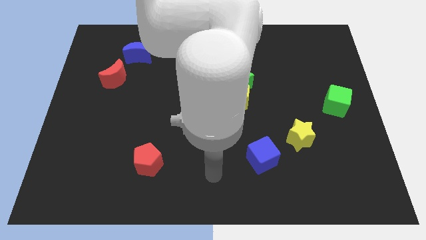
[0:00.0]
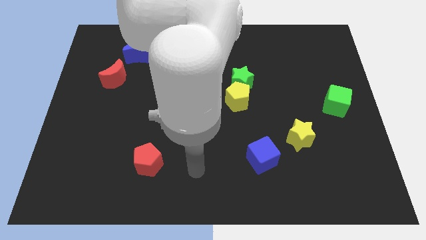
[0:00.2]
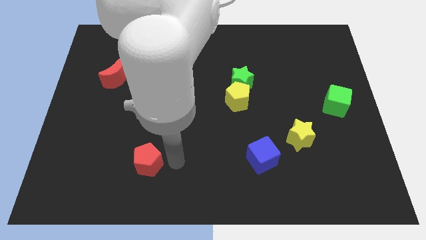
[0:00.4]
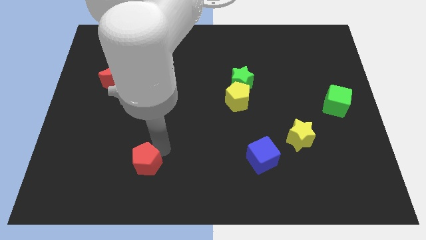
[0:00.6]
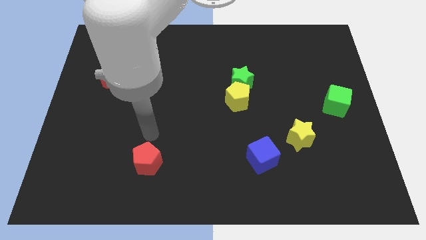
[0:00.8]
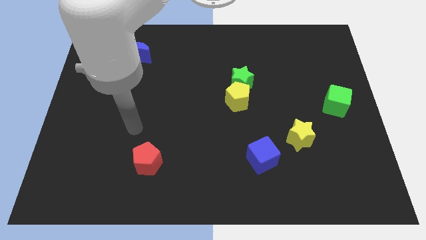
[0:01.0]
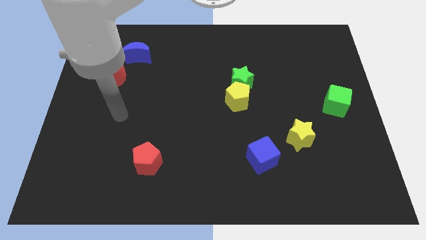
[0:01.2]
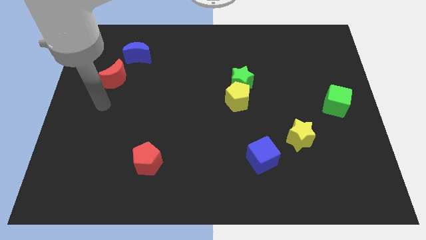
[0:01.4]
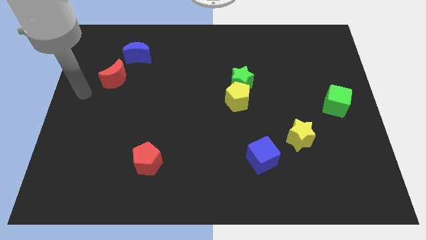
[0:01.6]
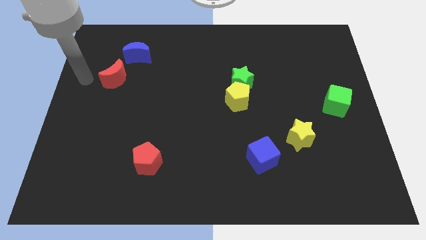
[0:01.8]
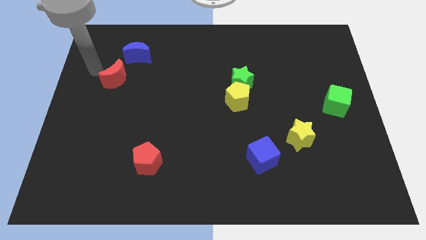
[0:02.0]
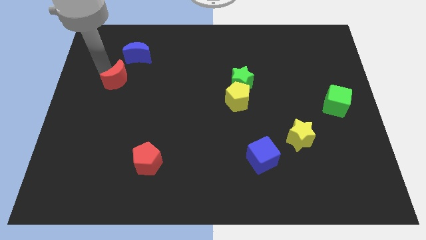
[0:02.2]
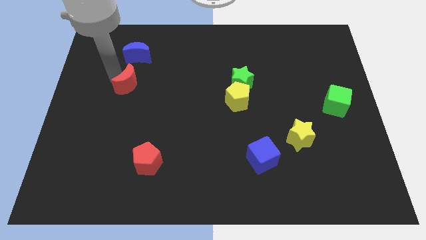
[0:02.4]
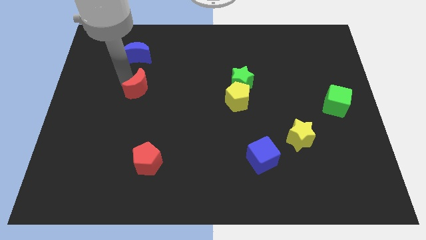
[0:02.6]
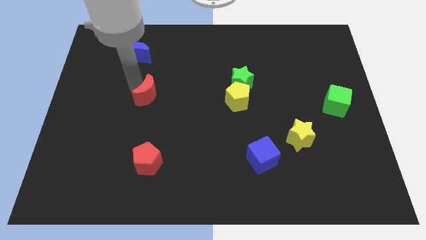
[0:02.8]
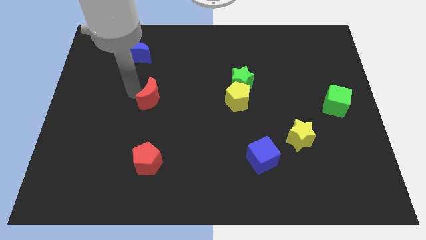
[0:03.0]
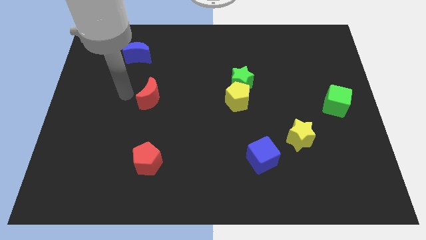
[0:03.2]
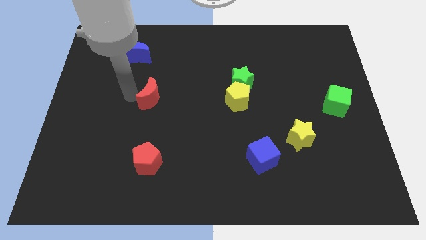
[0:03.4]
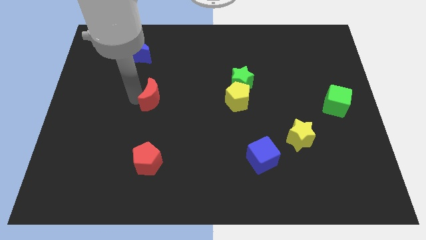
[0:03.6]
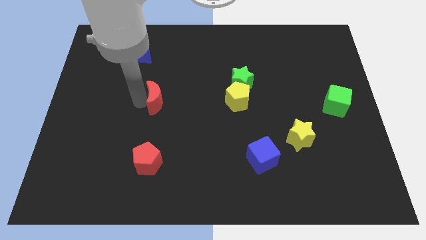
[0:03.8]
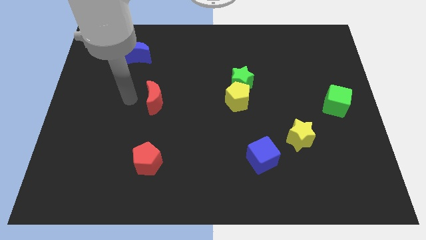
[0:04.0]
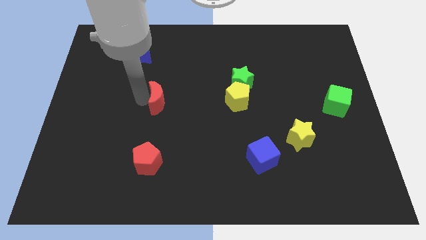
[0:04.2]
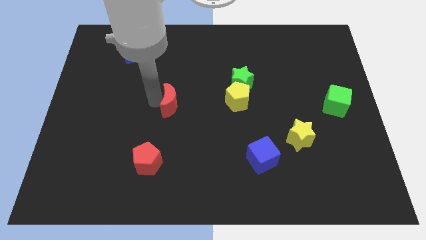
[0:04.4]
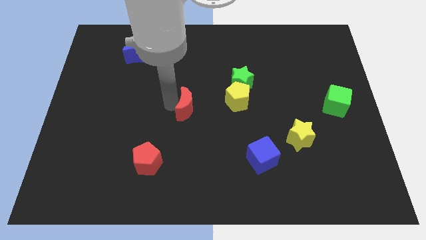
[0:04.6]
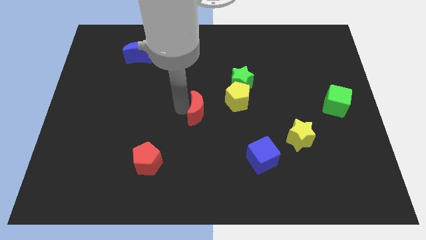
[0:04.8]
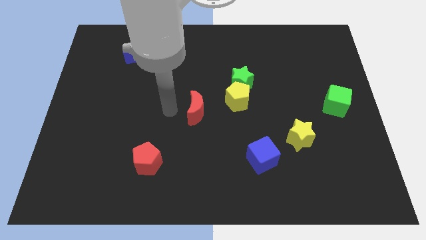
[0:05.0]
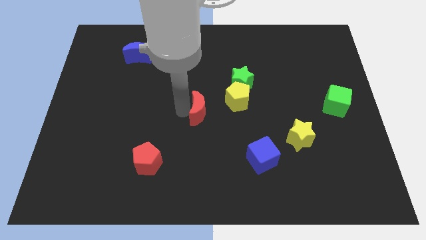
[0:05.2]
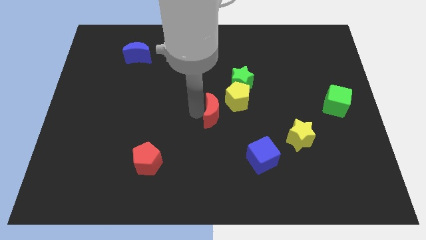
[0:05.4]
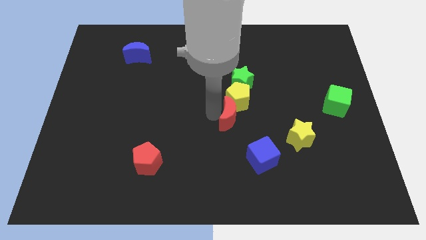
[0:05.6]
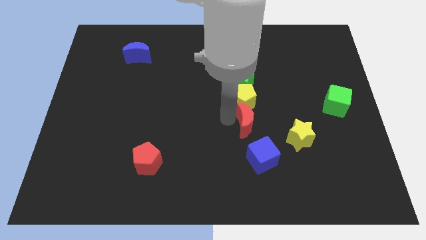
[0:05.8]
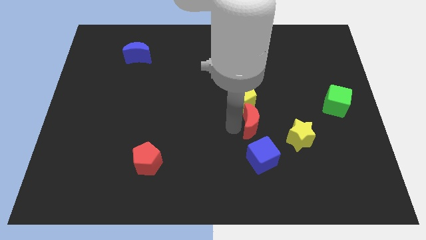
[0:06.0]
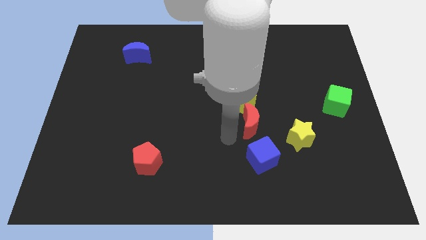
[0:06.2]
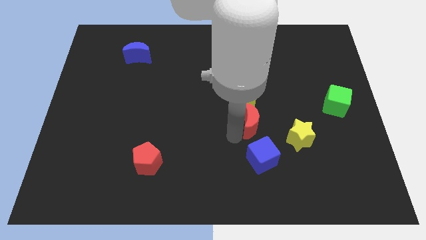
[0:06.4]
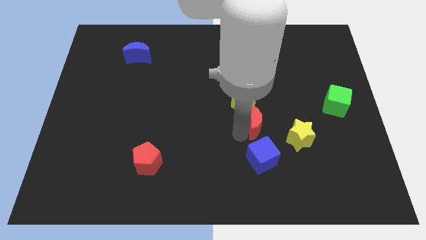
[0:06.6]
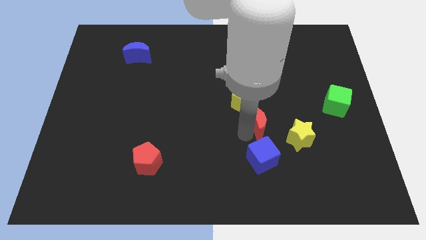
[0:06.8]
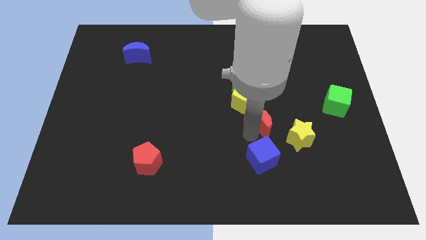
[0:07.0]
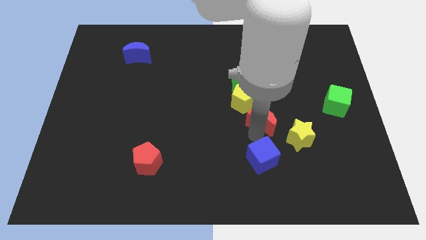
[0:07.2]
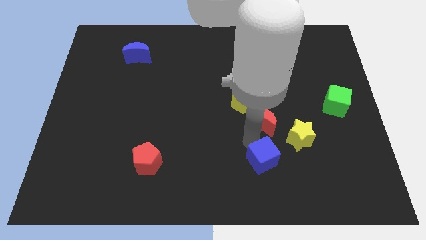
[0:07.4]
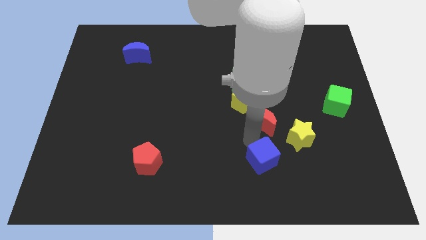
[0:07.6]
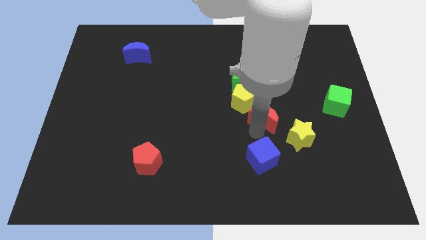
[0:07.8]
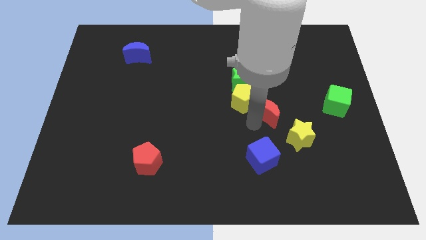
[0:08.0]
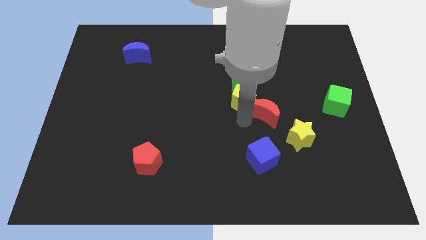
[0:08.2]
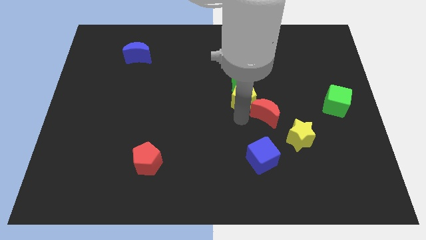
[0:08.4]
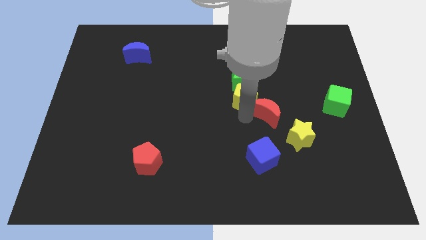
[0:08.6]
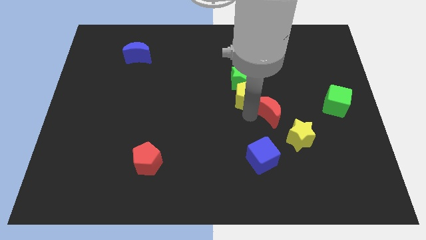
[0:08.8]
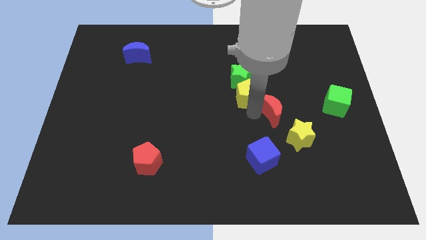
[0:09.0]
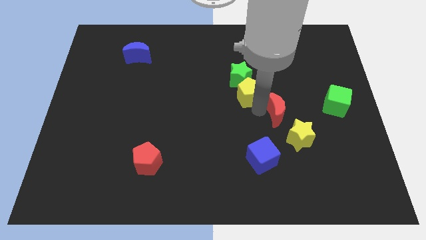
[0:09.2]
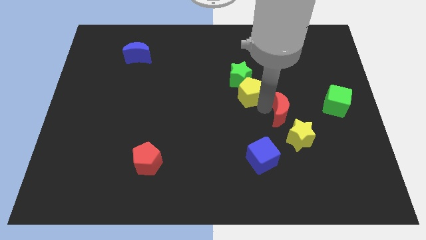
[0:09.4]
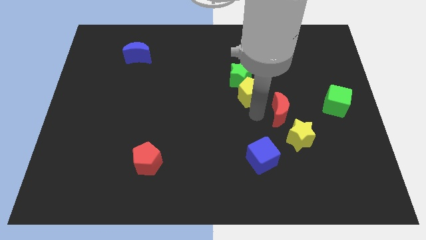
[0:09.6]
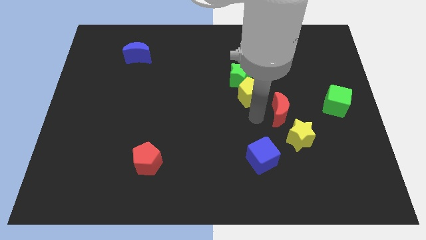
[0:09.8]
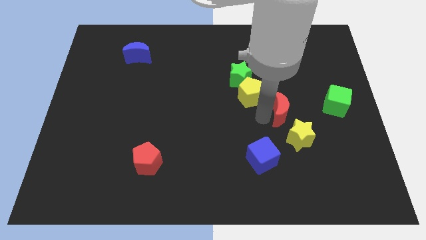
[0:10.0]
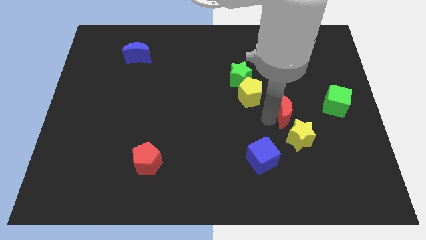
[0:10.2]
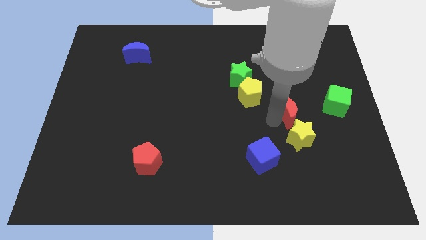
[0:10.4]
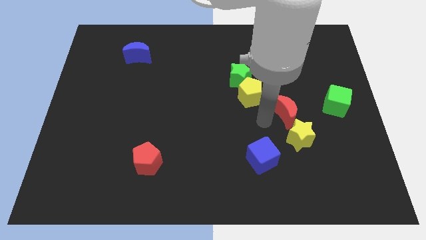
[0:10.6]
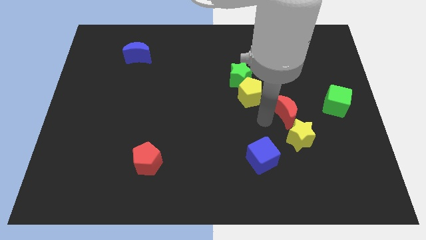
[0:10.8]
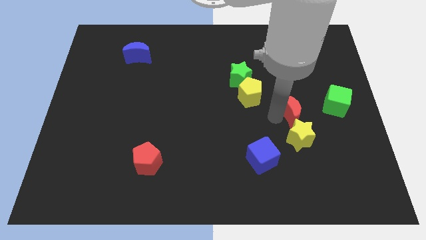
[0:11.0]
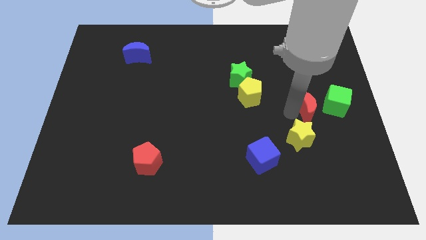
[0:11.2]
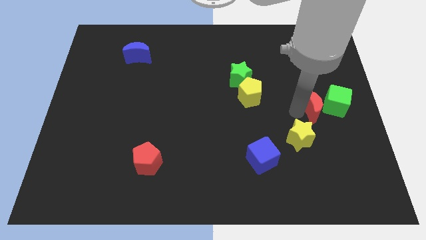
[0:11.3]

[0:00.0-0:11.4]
slide the red moon close to the green cube

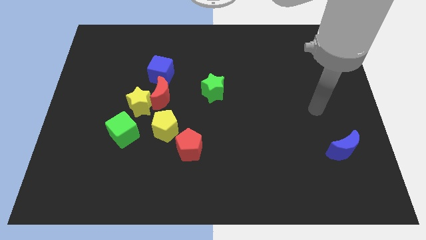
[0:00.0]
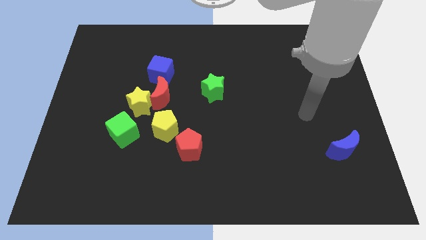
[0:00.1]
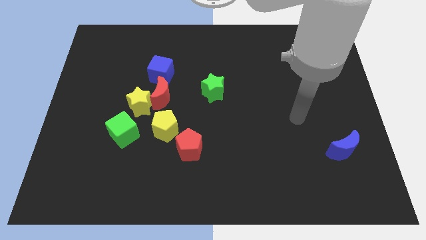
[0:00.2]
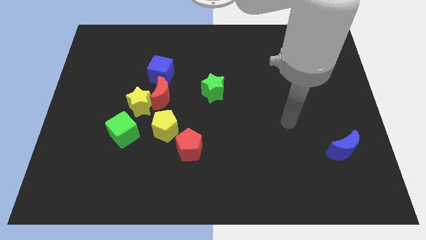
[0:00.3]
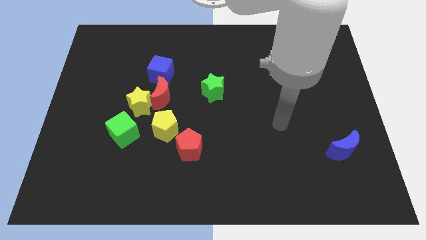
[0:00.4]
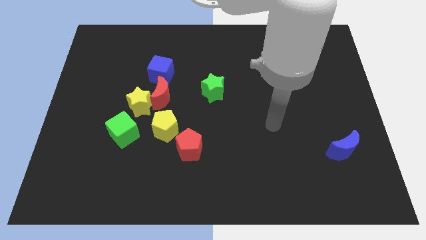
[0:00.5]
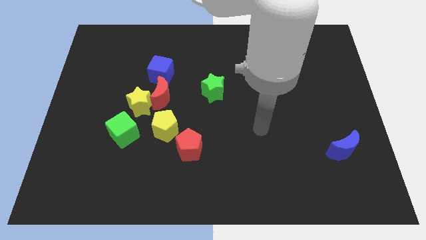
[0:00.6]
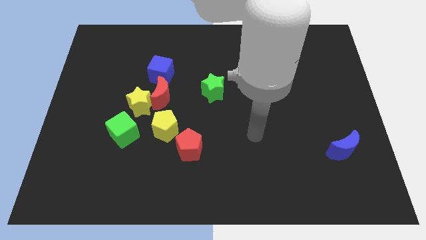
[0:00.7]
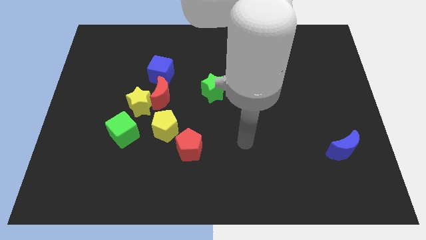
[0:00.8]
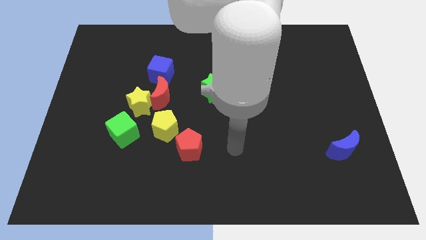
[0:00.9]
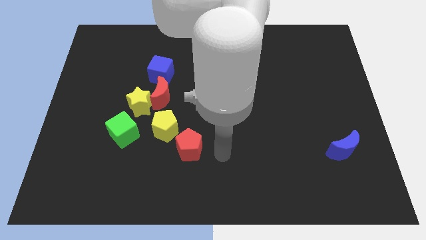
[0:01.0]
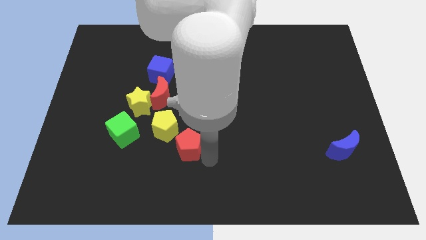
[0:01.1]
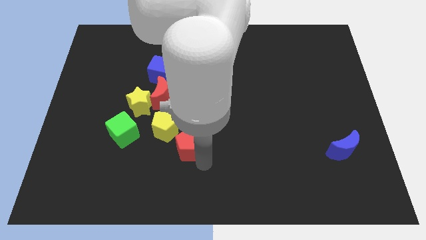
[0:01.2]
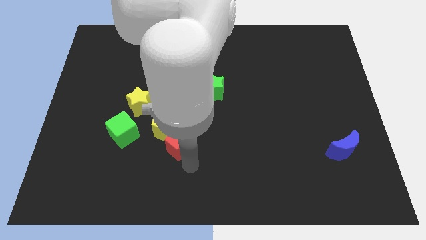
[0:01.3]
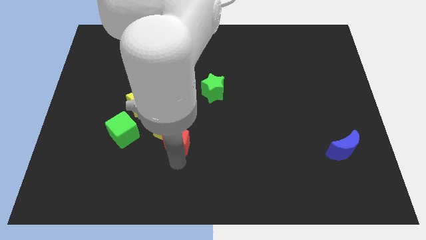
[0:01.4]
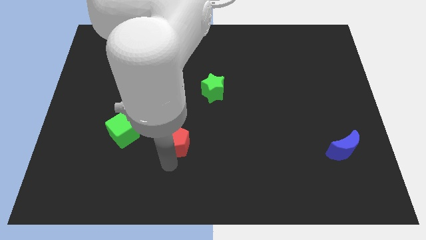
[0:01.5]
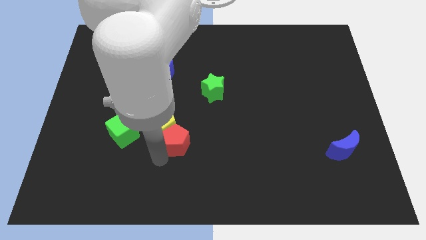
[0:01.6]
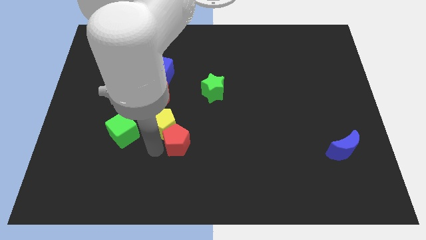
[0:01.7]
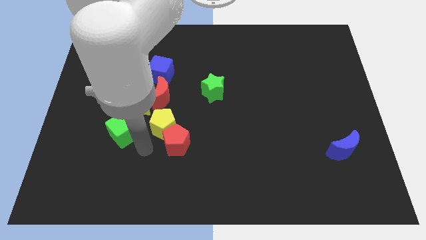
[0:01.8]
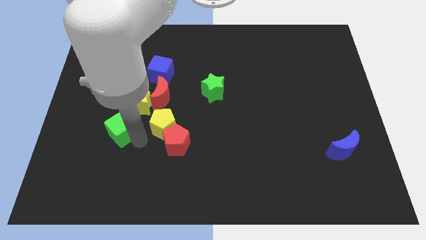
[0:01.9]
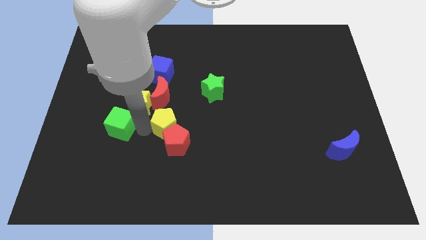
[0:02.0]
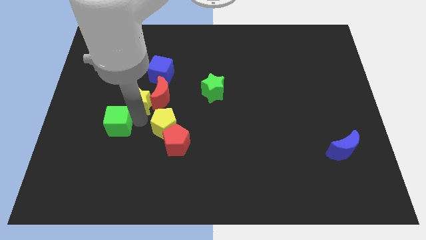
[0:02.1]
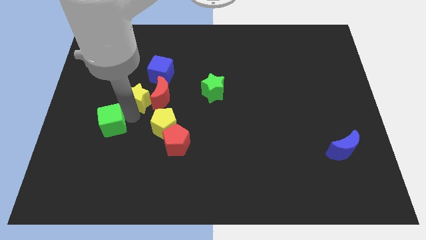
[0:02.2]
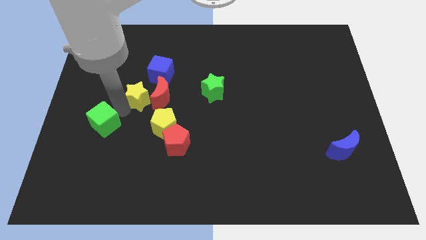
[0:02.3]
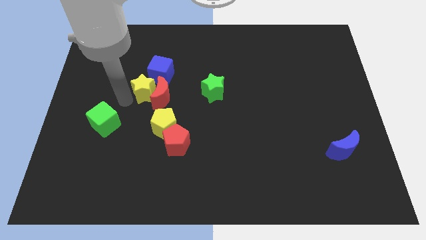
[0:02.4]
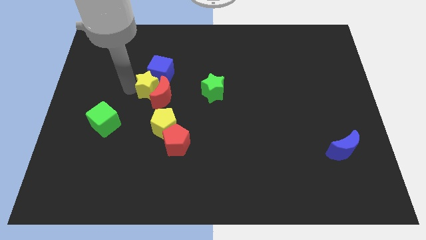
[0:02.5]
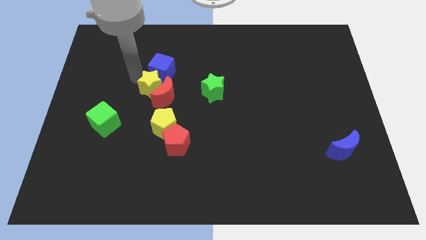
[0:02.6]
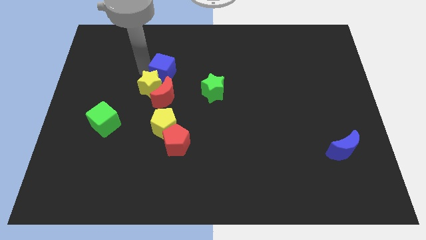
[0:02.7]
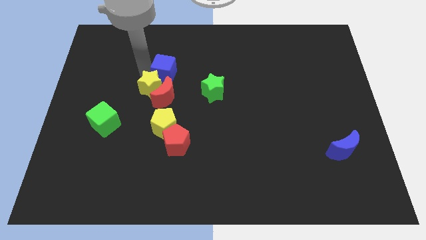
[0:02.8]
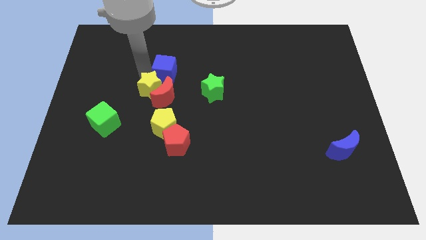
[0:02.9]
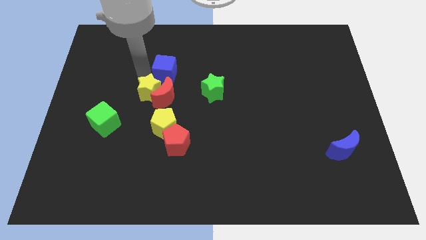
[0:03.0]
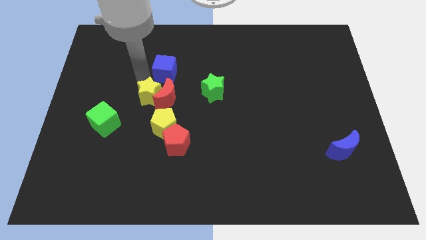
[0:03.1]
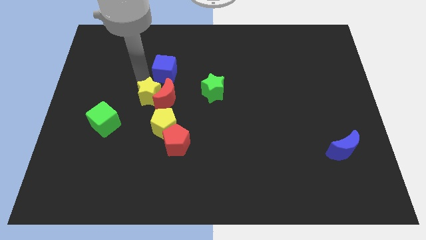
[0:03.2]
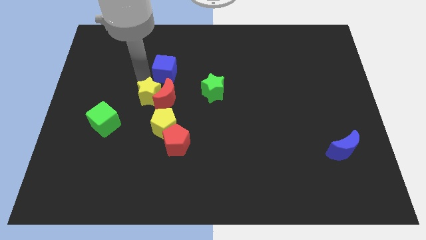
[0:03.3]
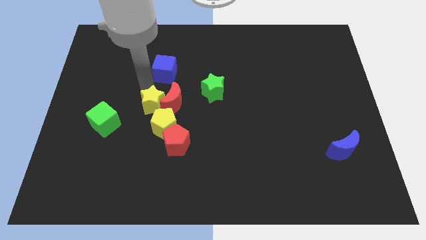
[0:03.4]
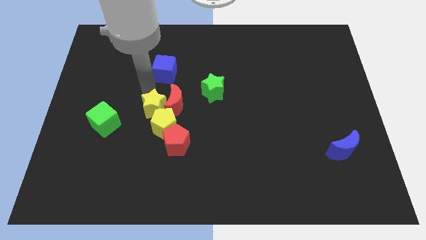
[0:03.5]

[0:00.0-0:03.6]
put the yellow star next to the yellow pentagon
